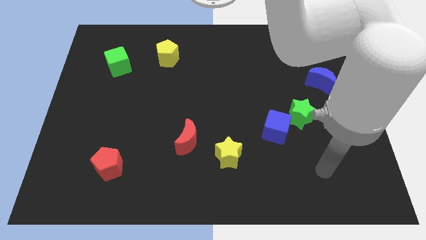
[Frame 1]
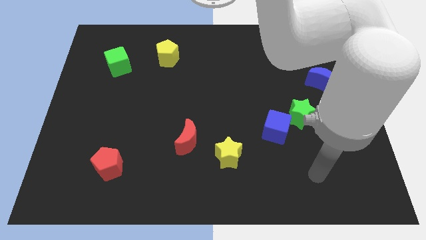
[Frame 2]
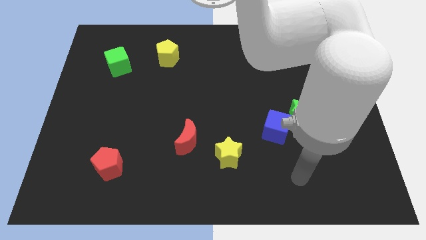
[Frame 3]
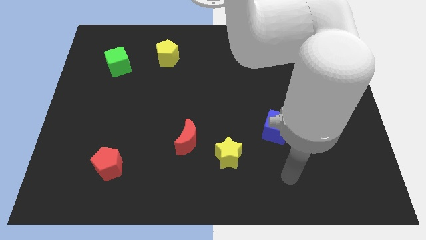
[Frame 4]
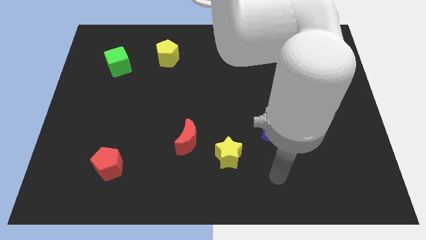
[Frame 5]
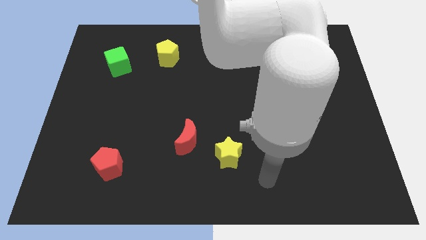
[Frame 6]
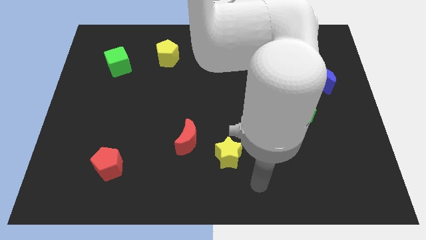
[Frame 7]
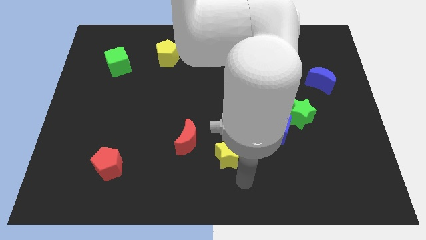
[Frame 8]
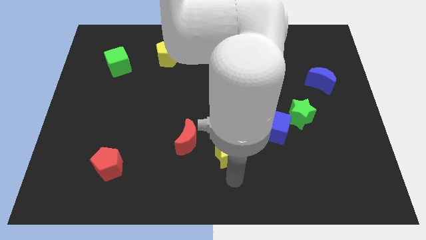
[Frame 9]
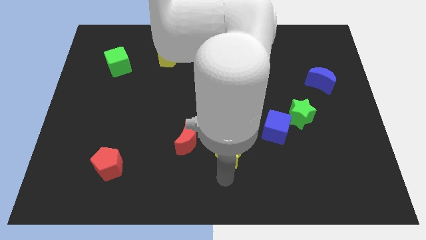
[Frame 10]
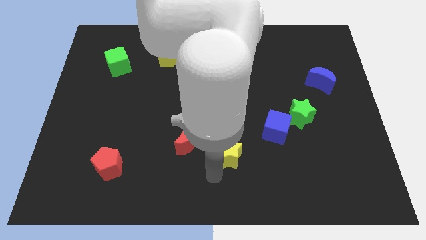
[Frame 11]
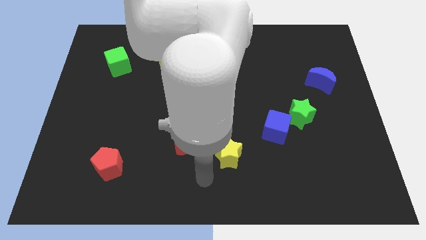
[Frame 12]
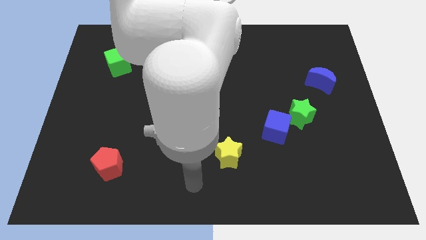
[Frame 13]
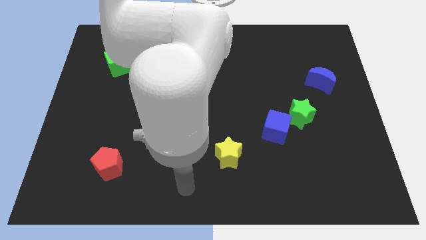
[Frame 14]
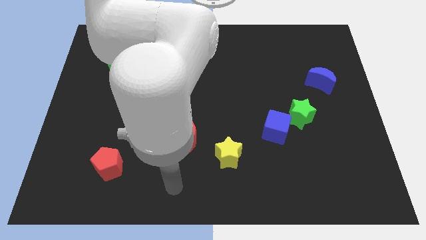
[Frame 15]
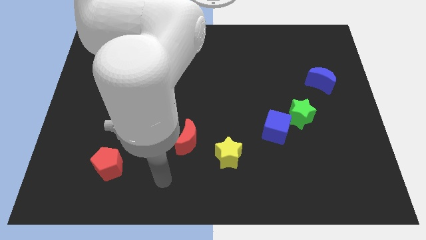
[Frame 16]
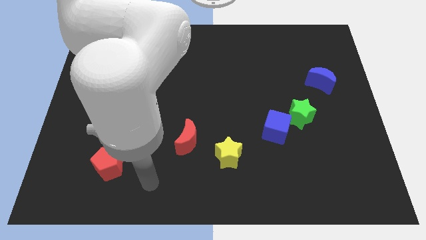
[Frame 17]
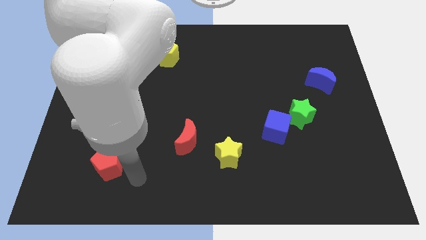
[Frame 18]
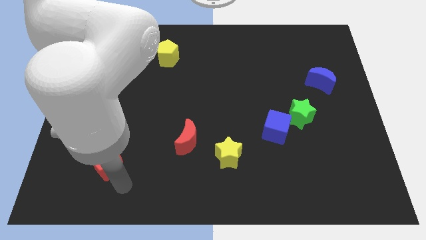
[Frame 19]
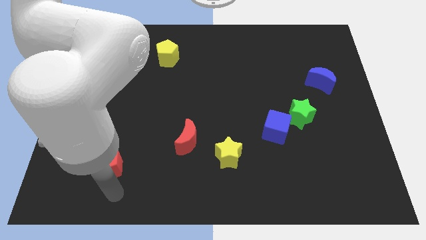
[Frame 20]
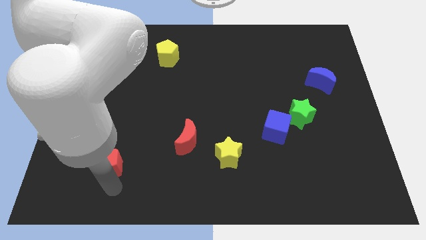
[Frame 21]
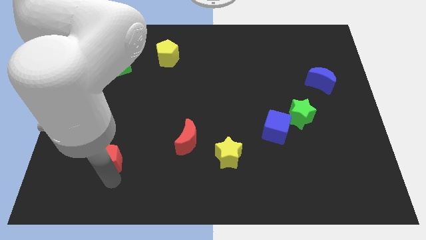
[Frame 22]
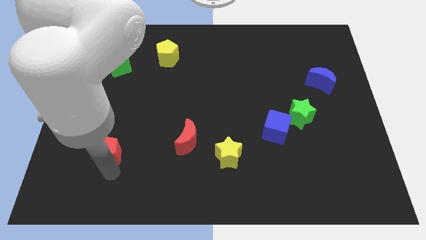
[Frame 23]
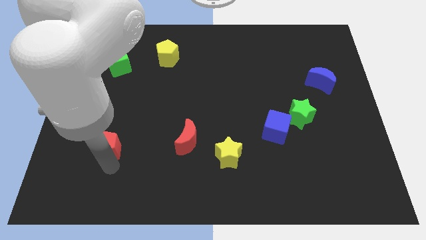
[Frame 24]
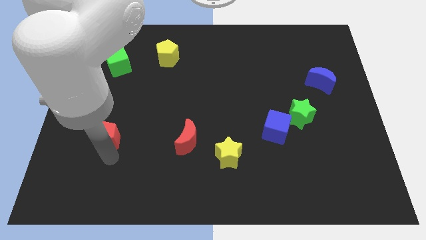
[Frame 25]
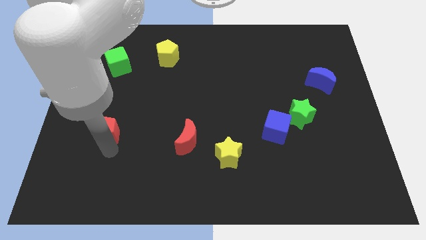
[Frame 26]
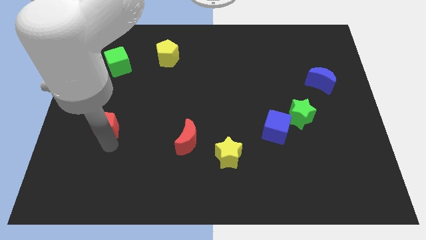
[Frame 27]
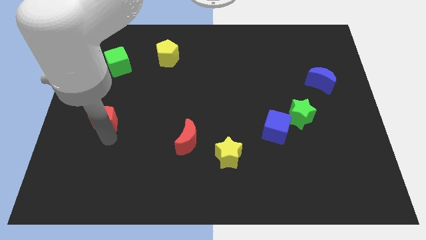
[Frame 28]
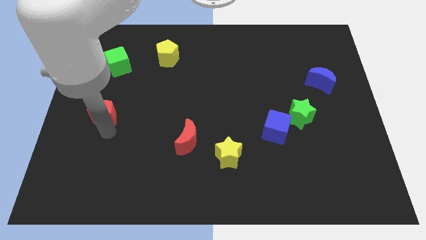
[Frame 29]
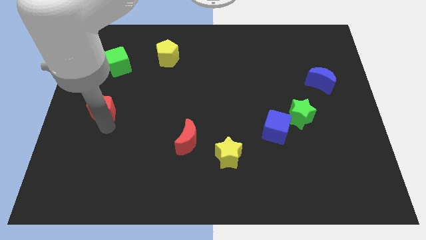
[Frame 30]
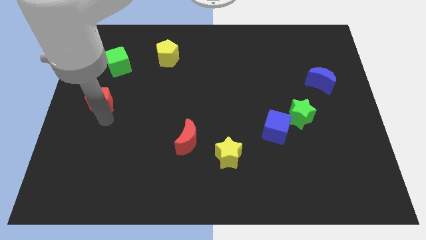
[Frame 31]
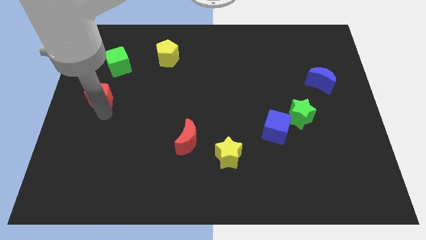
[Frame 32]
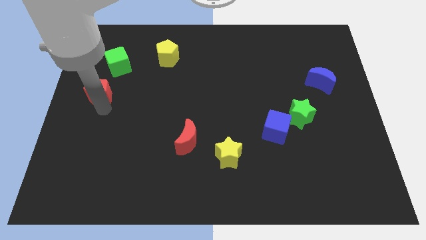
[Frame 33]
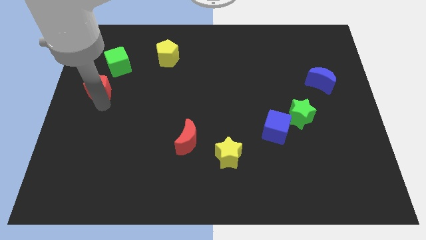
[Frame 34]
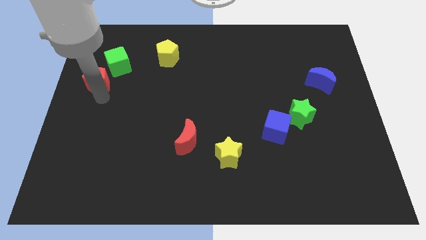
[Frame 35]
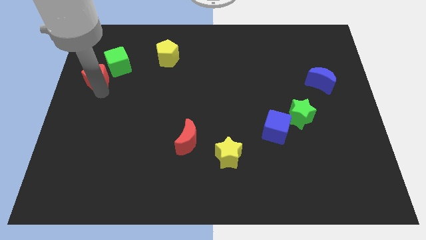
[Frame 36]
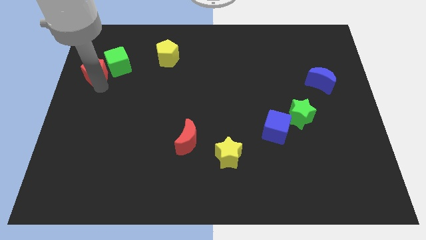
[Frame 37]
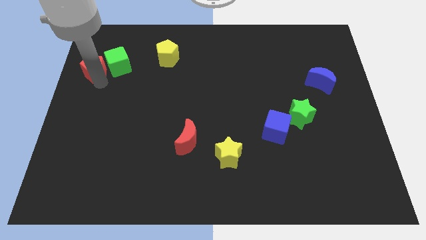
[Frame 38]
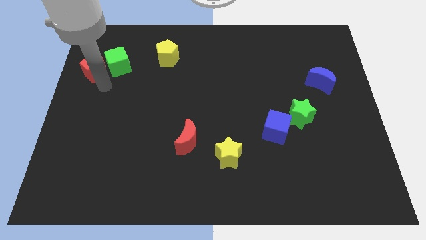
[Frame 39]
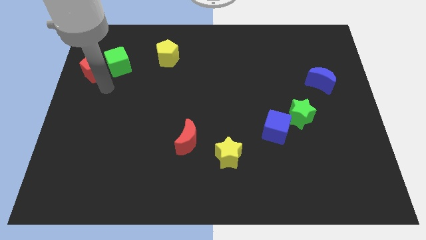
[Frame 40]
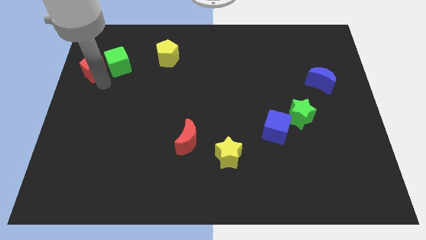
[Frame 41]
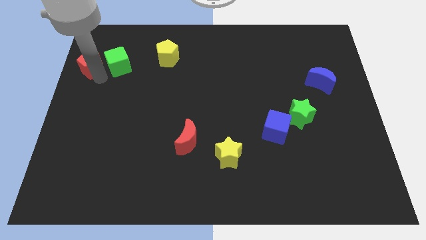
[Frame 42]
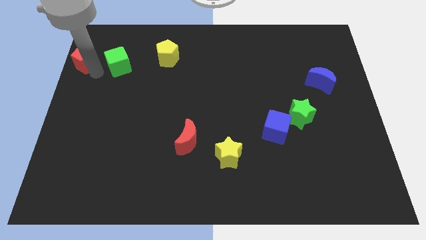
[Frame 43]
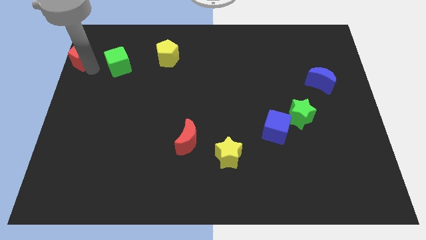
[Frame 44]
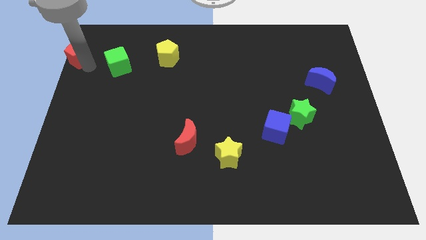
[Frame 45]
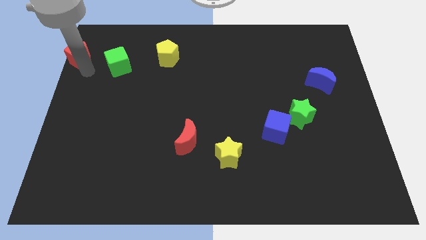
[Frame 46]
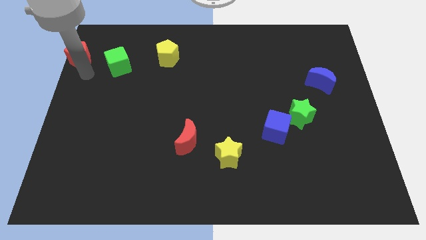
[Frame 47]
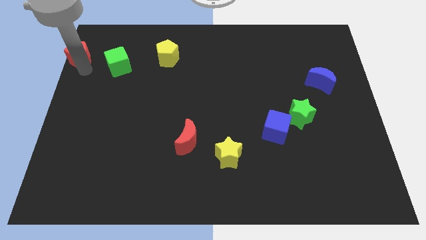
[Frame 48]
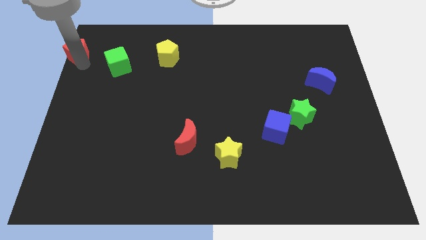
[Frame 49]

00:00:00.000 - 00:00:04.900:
push the red pentagon to the upper left corner

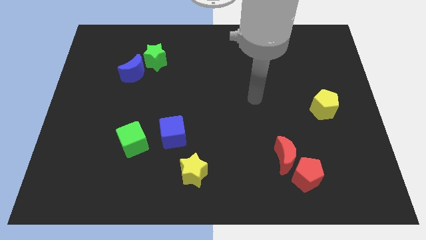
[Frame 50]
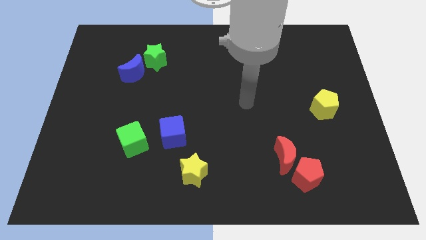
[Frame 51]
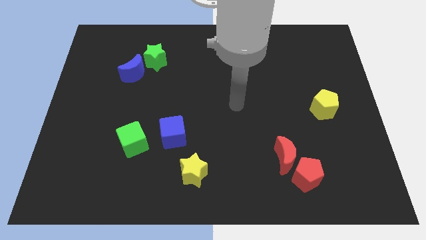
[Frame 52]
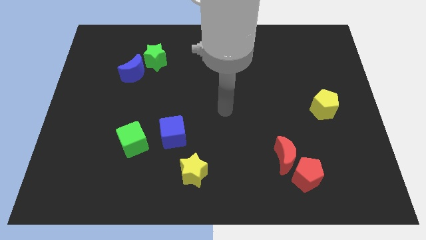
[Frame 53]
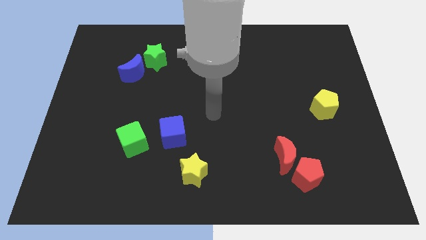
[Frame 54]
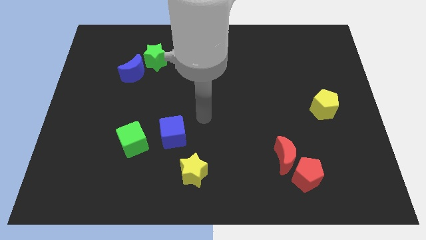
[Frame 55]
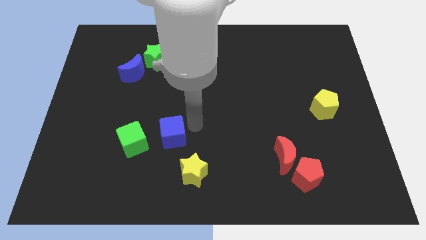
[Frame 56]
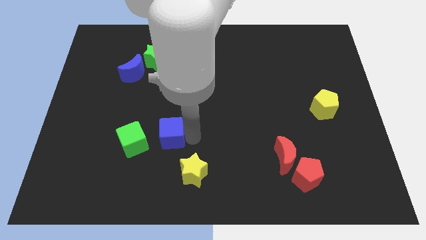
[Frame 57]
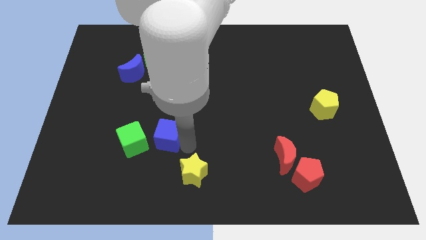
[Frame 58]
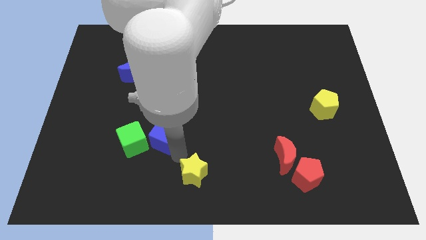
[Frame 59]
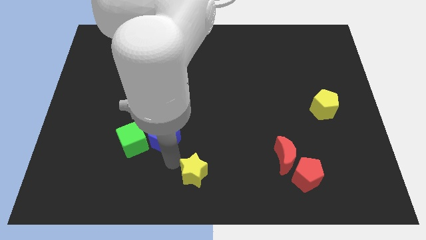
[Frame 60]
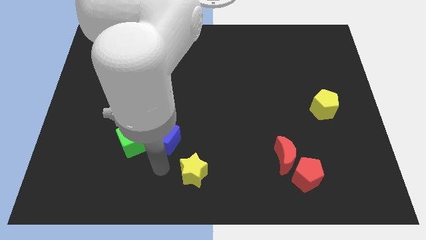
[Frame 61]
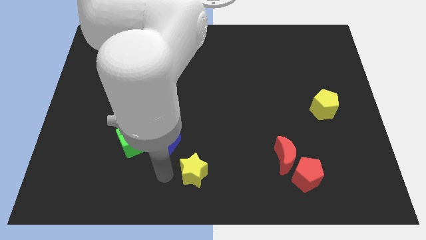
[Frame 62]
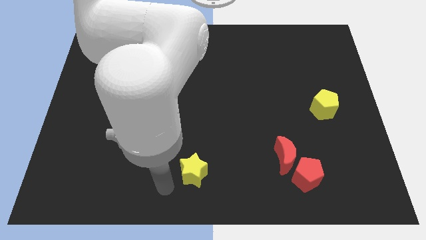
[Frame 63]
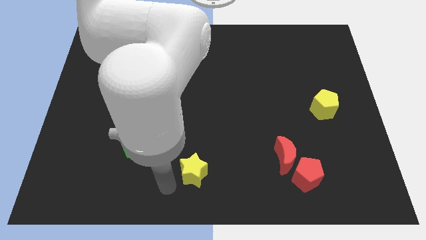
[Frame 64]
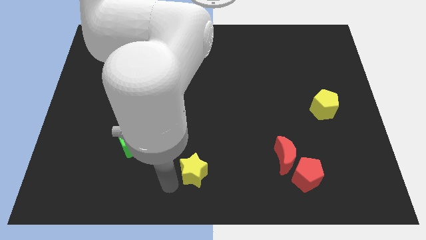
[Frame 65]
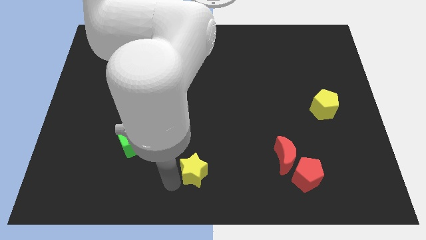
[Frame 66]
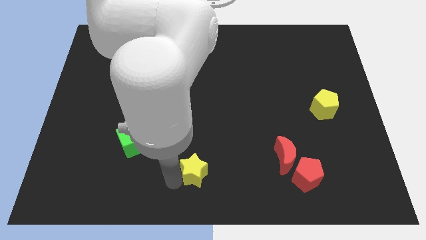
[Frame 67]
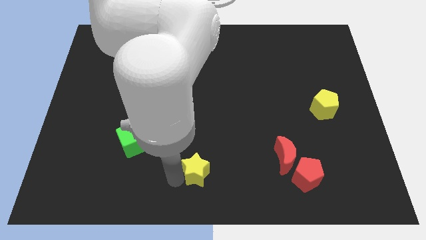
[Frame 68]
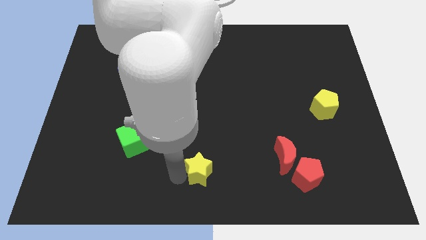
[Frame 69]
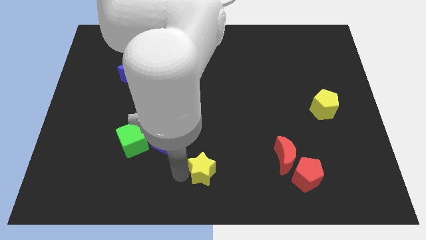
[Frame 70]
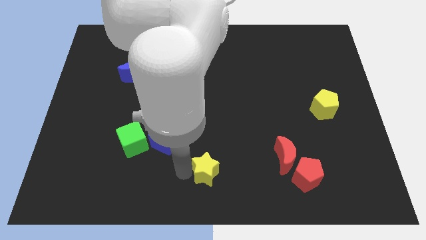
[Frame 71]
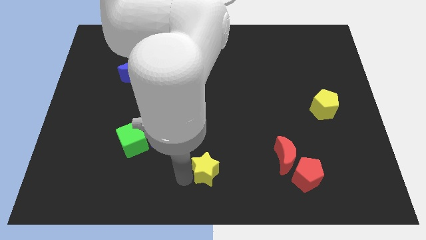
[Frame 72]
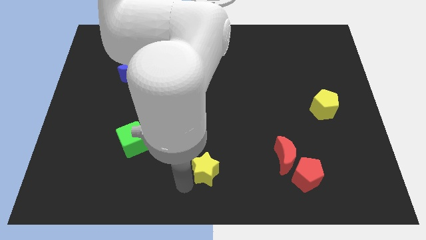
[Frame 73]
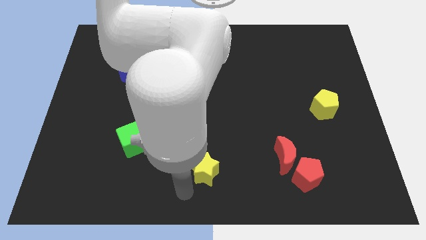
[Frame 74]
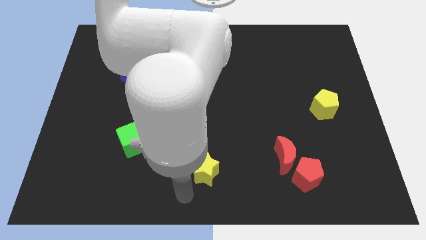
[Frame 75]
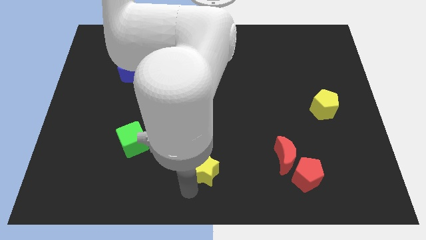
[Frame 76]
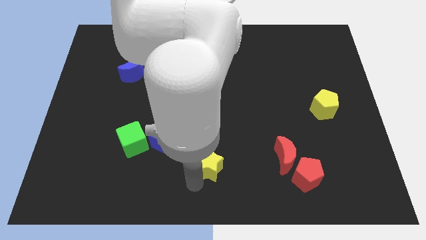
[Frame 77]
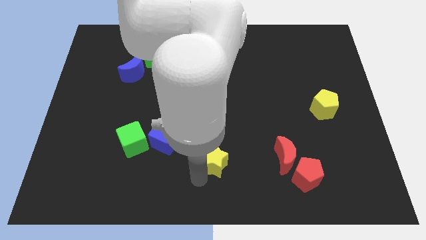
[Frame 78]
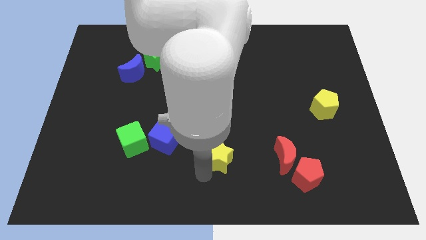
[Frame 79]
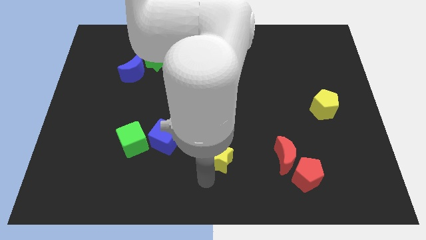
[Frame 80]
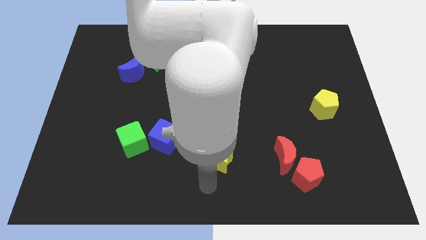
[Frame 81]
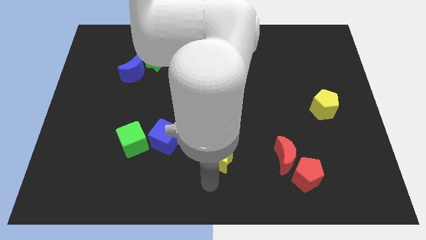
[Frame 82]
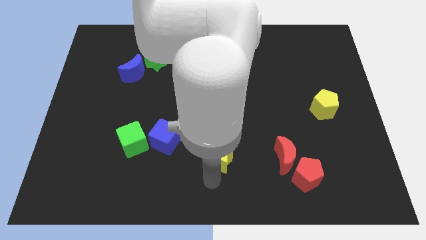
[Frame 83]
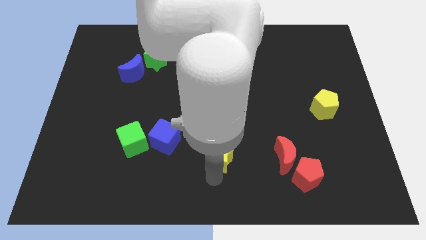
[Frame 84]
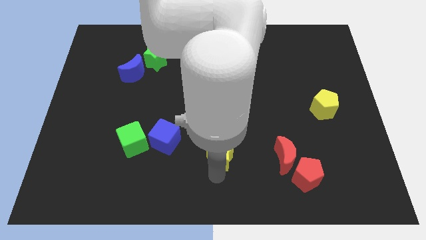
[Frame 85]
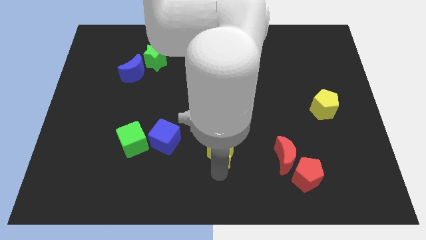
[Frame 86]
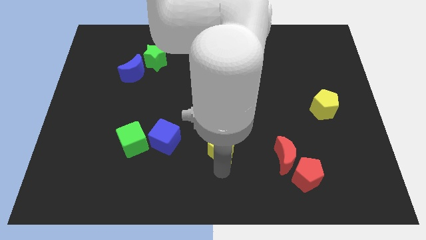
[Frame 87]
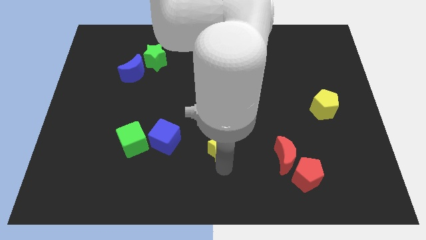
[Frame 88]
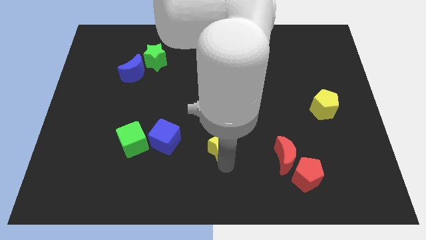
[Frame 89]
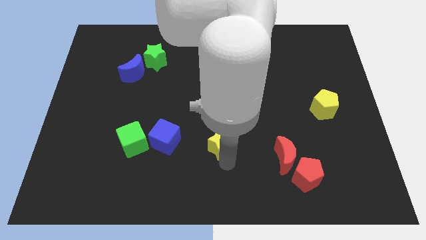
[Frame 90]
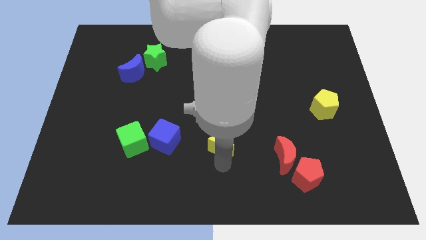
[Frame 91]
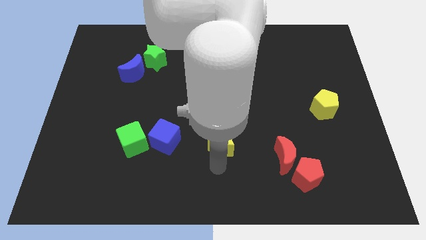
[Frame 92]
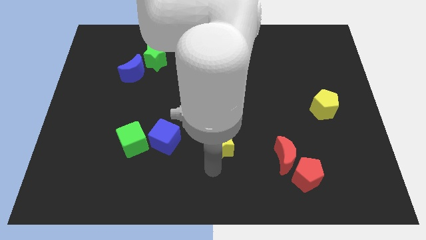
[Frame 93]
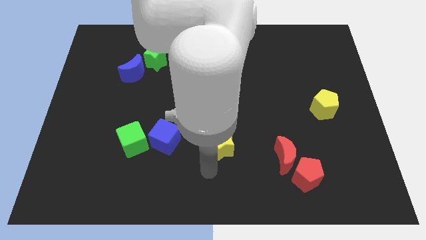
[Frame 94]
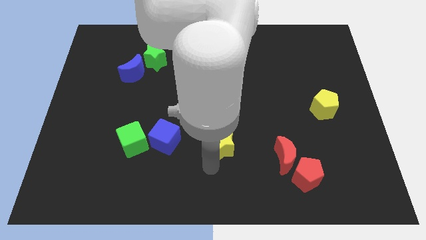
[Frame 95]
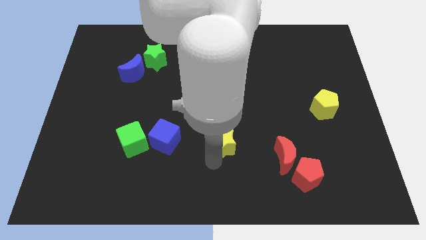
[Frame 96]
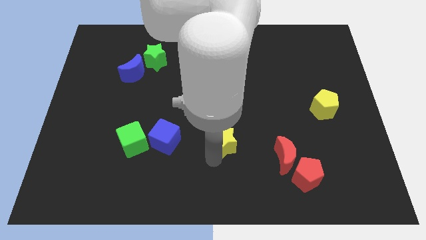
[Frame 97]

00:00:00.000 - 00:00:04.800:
slide the yellow star to the middle of the board
